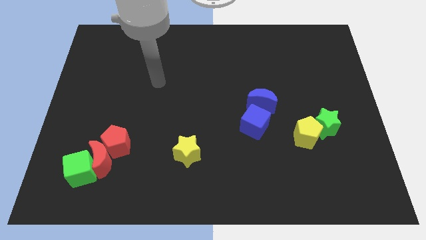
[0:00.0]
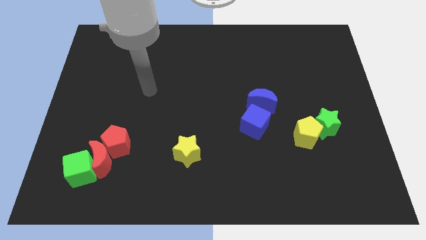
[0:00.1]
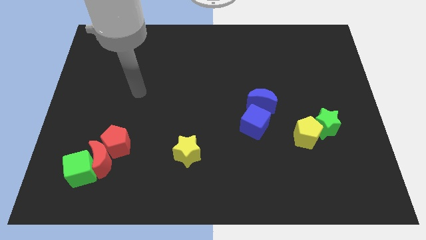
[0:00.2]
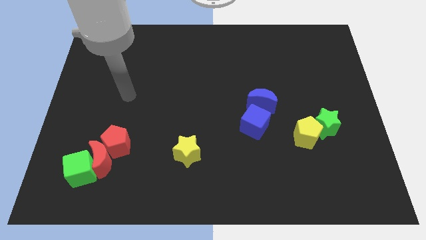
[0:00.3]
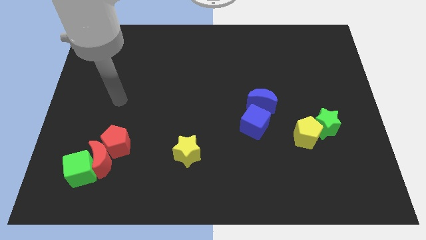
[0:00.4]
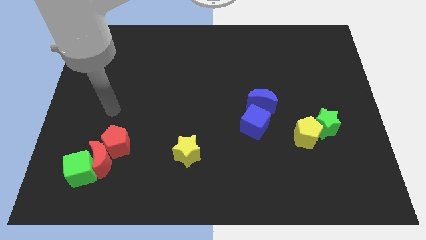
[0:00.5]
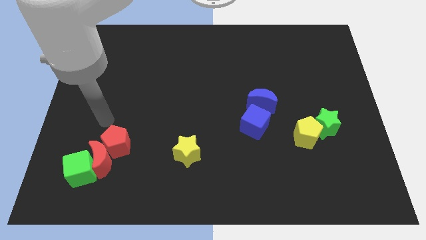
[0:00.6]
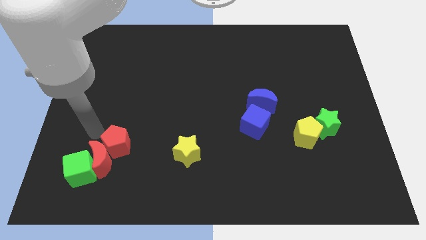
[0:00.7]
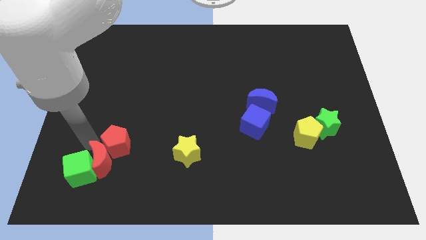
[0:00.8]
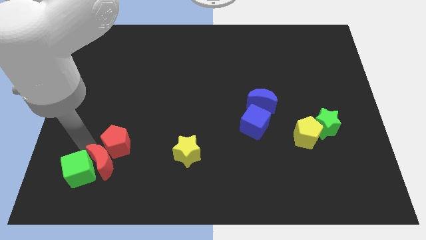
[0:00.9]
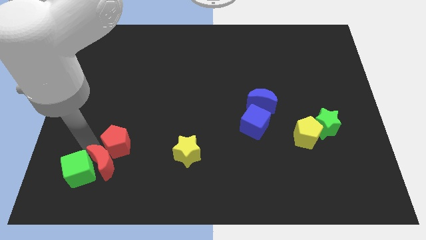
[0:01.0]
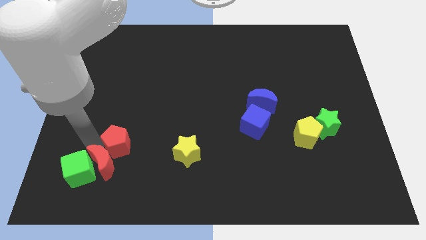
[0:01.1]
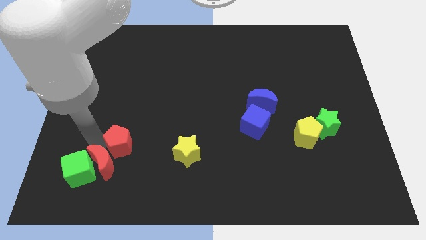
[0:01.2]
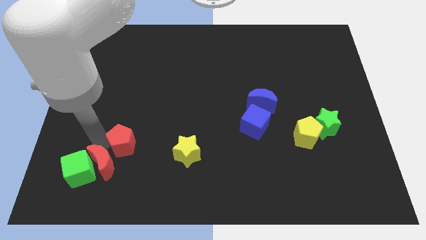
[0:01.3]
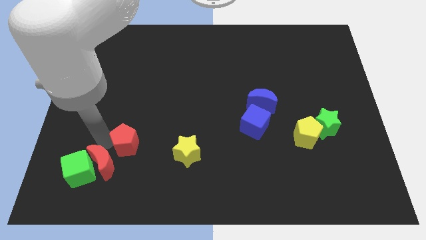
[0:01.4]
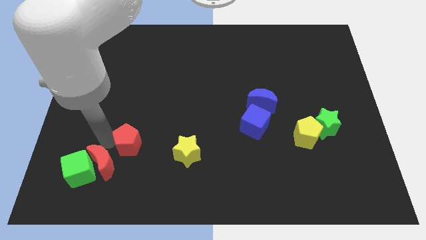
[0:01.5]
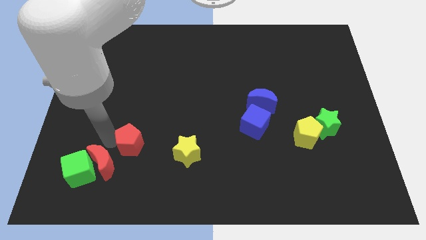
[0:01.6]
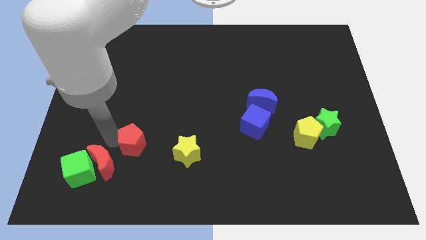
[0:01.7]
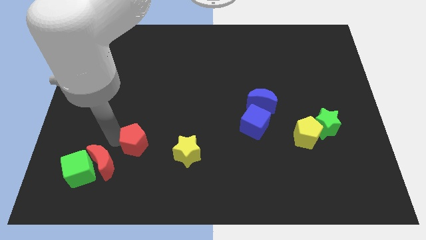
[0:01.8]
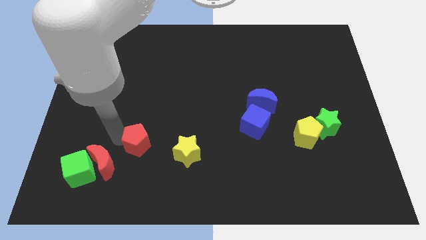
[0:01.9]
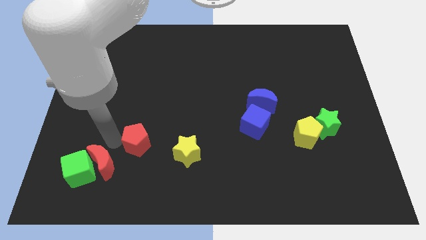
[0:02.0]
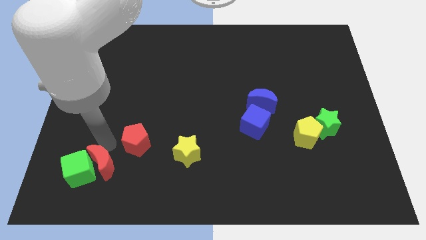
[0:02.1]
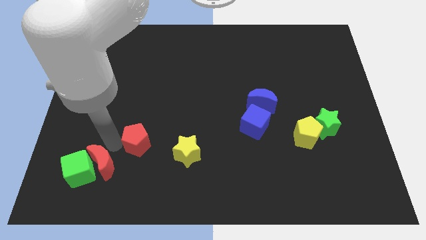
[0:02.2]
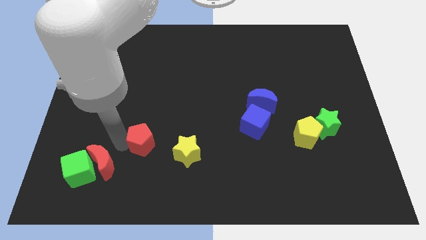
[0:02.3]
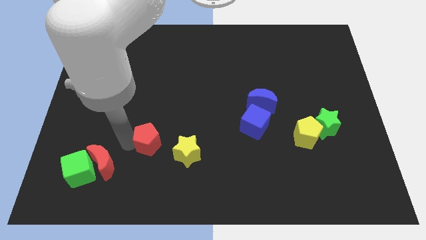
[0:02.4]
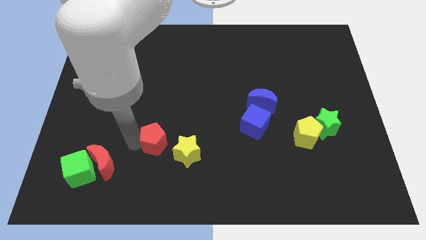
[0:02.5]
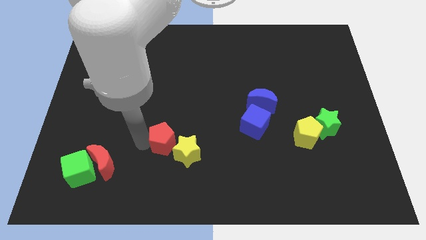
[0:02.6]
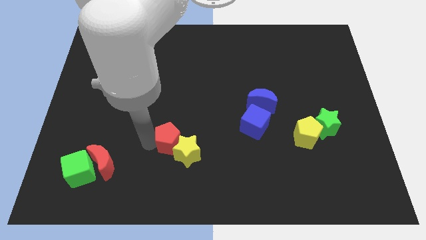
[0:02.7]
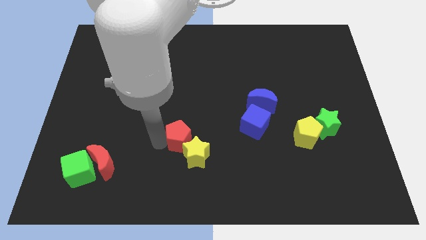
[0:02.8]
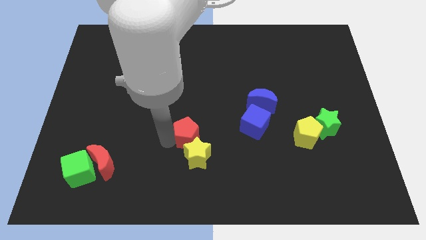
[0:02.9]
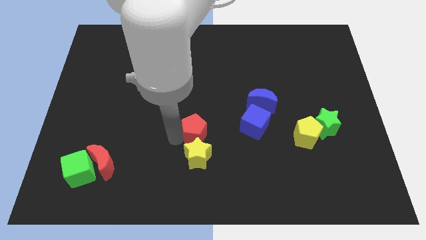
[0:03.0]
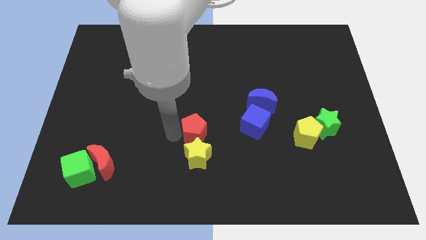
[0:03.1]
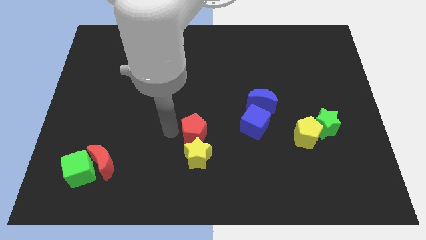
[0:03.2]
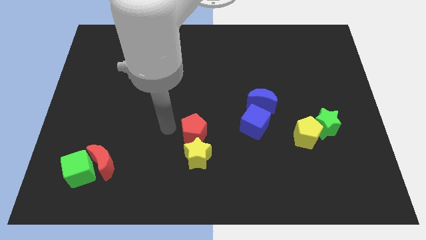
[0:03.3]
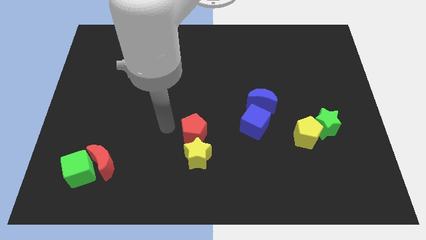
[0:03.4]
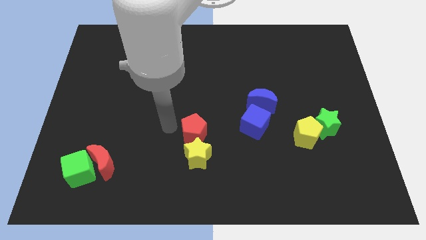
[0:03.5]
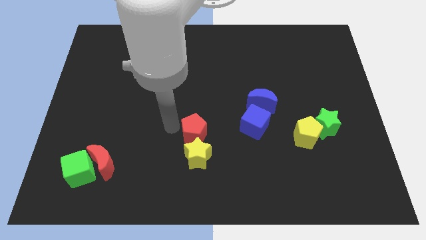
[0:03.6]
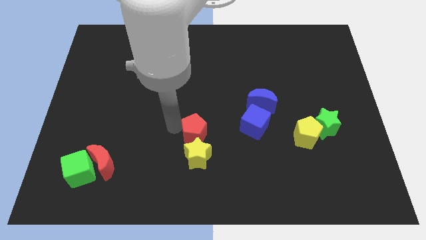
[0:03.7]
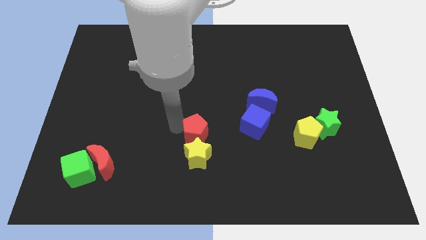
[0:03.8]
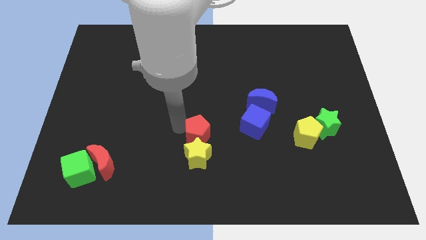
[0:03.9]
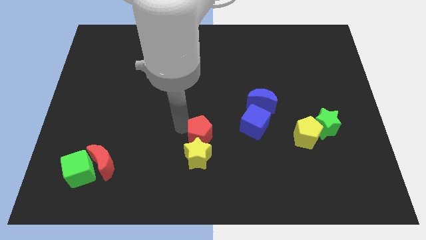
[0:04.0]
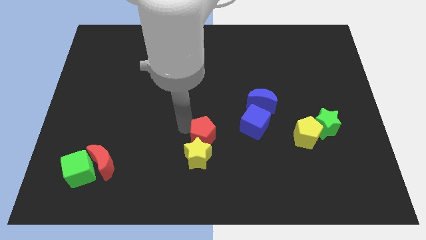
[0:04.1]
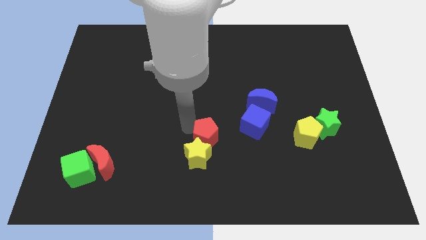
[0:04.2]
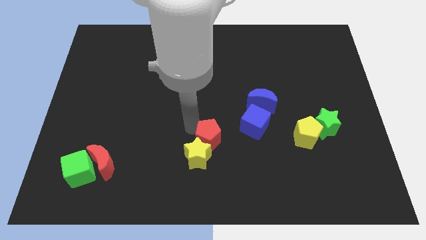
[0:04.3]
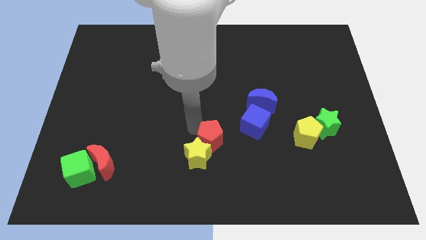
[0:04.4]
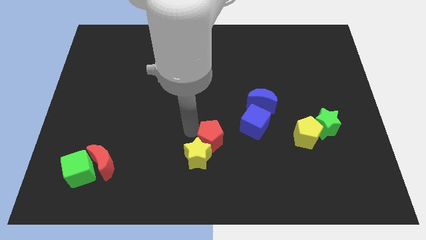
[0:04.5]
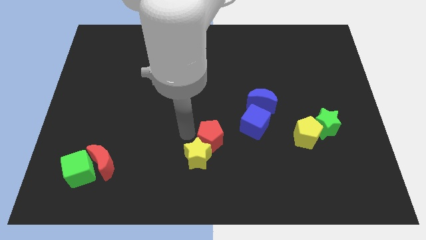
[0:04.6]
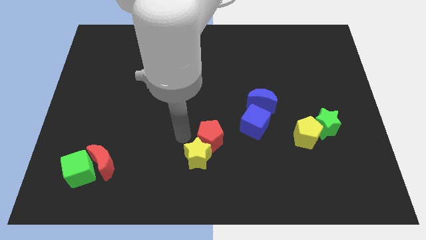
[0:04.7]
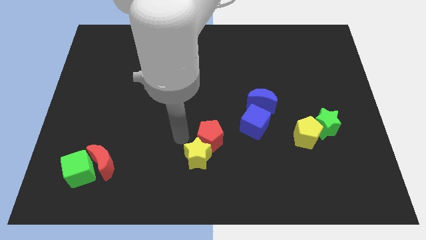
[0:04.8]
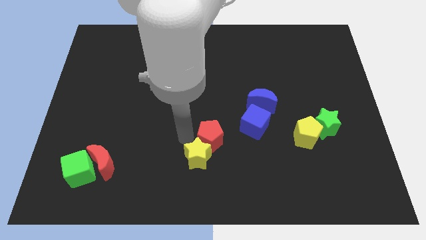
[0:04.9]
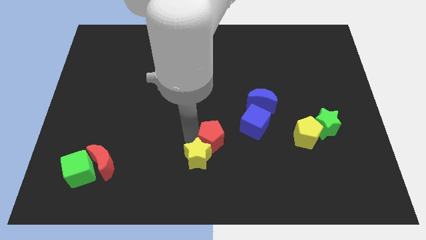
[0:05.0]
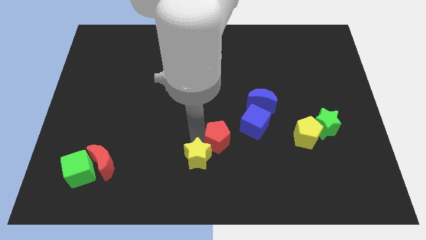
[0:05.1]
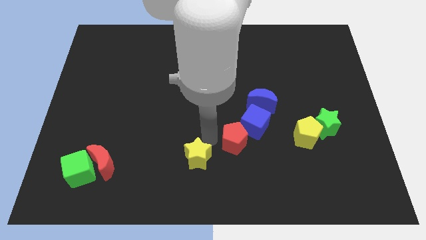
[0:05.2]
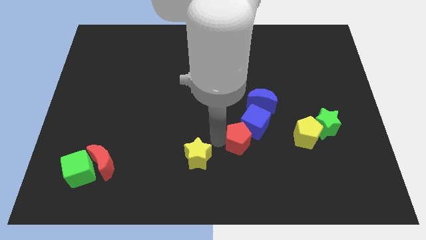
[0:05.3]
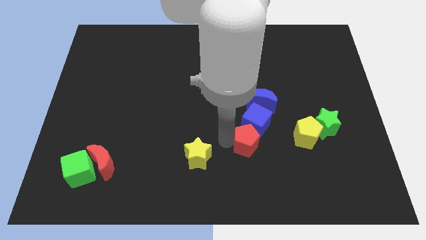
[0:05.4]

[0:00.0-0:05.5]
put the red pentagon to the bottom side of the blue moon

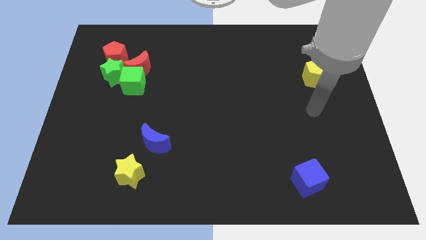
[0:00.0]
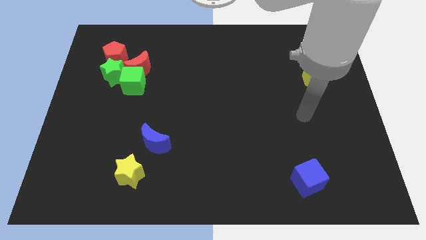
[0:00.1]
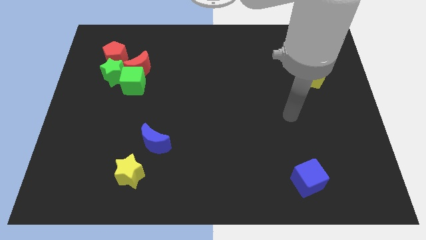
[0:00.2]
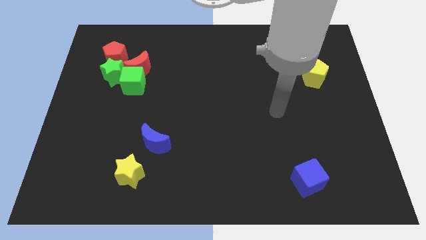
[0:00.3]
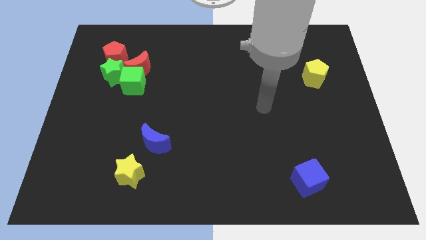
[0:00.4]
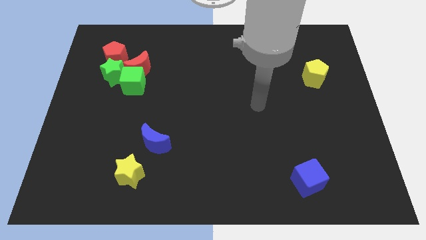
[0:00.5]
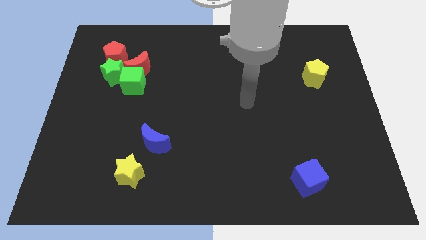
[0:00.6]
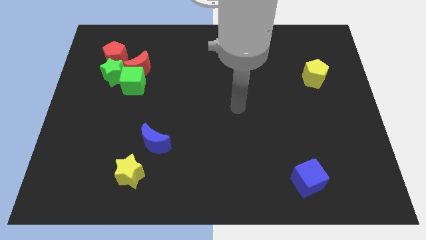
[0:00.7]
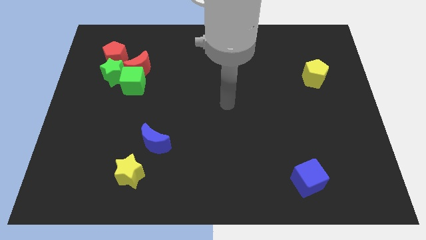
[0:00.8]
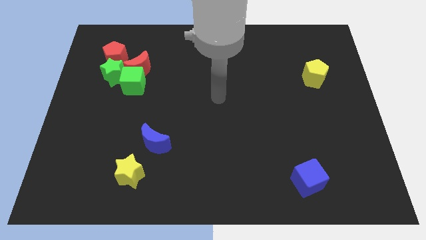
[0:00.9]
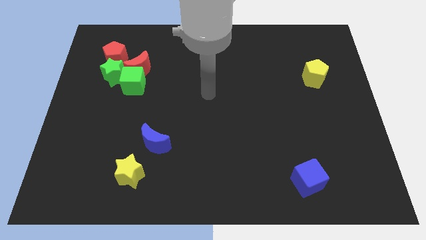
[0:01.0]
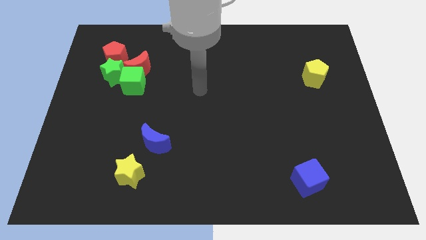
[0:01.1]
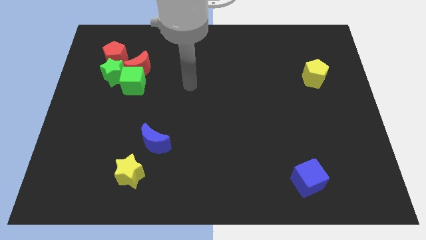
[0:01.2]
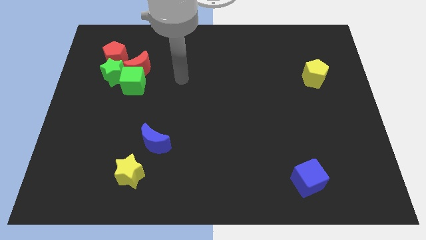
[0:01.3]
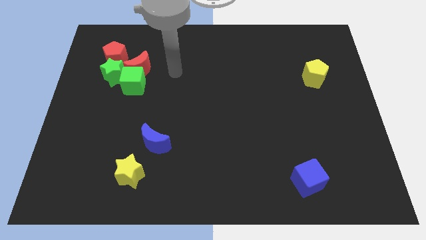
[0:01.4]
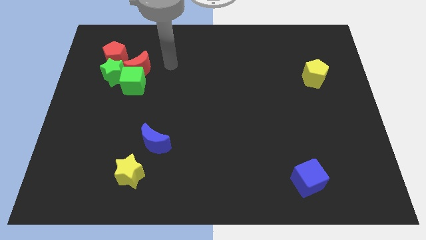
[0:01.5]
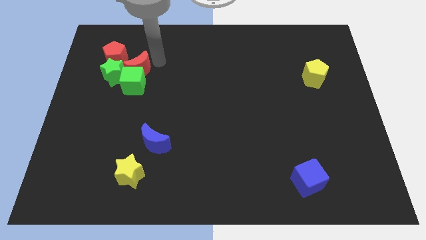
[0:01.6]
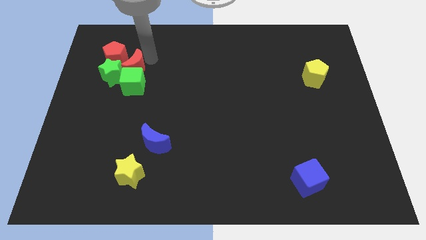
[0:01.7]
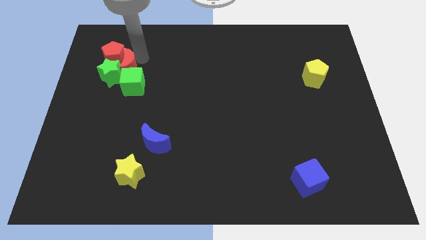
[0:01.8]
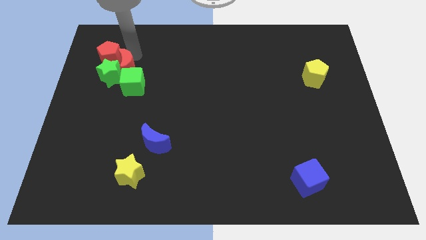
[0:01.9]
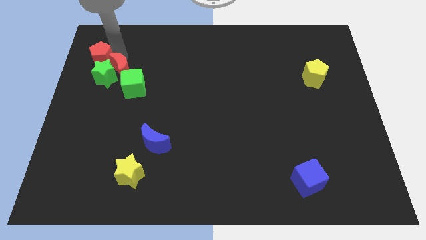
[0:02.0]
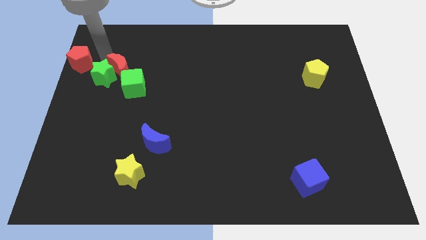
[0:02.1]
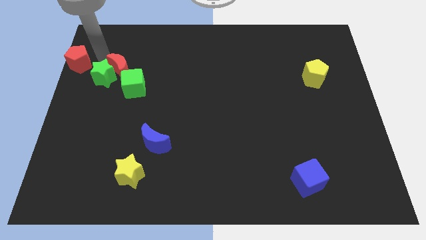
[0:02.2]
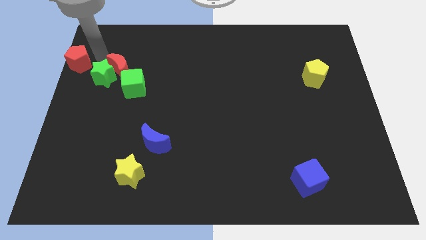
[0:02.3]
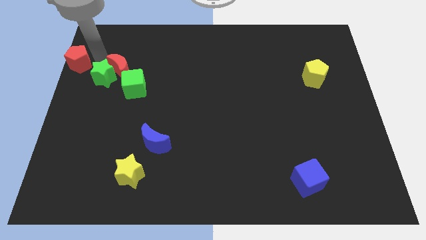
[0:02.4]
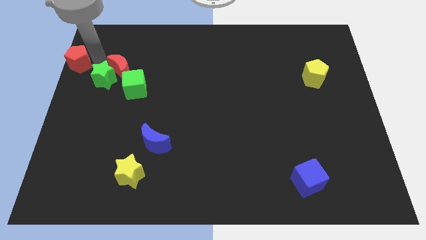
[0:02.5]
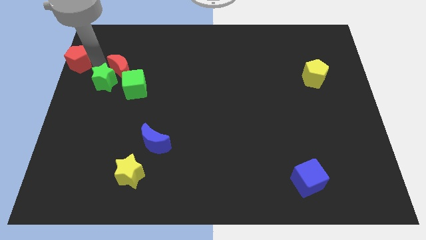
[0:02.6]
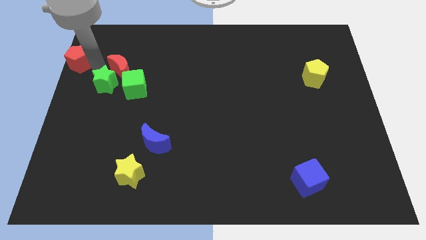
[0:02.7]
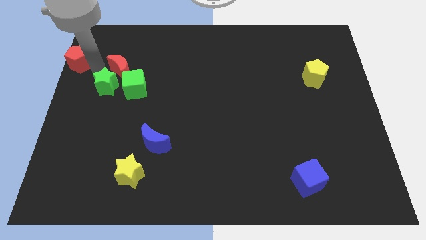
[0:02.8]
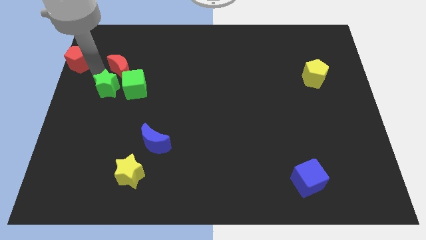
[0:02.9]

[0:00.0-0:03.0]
move the green star diagonally down and to the left of the green cube
